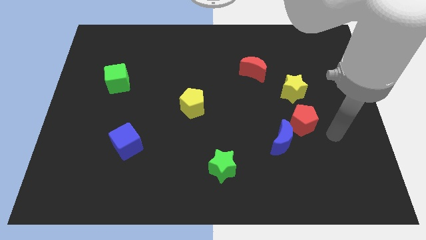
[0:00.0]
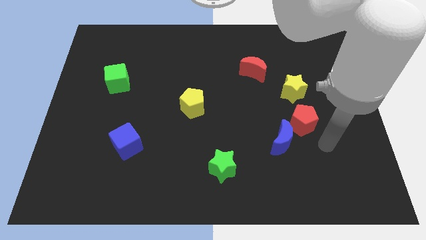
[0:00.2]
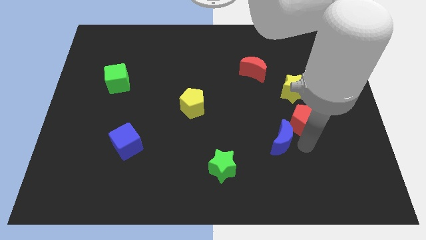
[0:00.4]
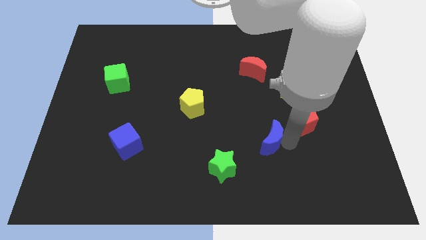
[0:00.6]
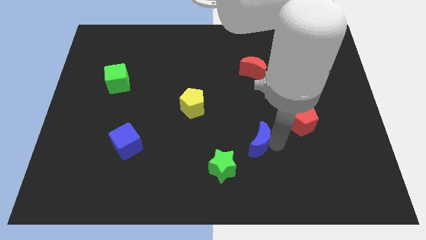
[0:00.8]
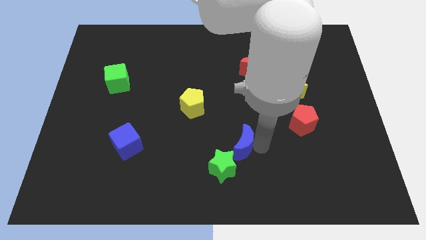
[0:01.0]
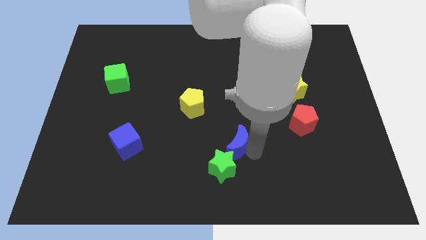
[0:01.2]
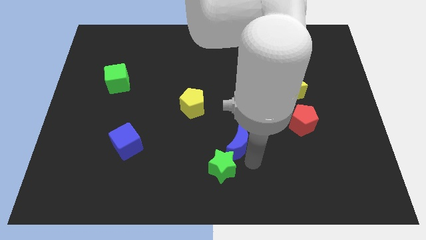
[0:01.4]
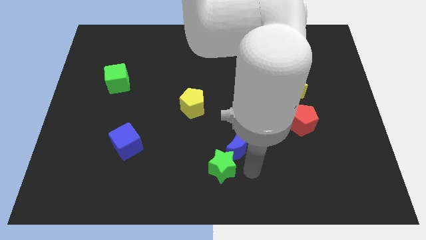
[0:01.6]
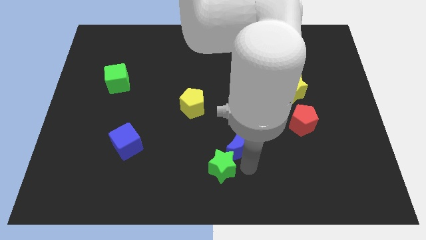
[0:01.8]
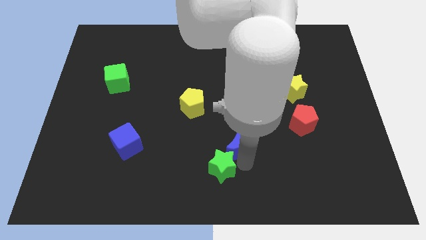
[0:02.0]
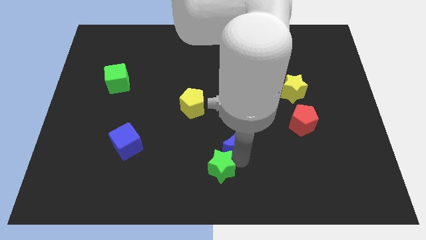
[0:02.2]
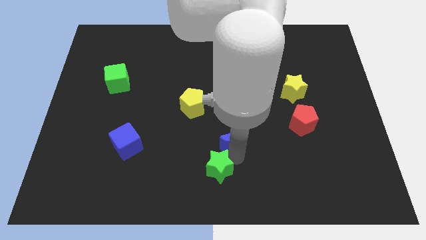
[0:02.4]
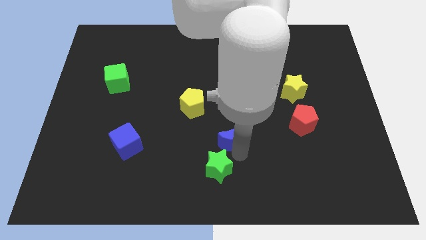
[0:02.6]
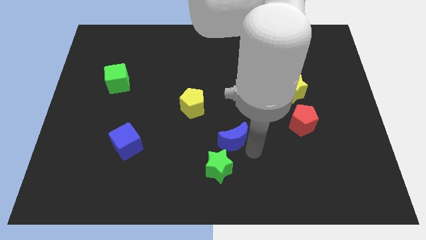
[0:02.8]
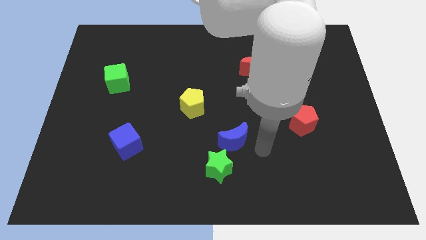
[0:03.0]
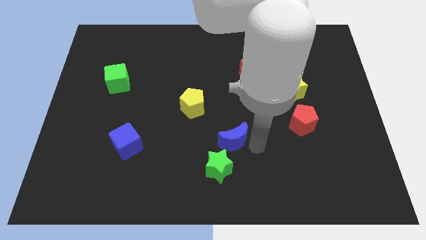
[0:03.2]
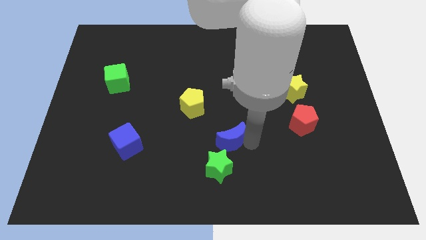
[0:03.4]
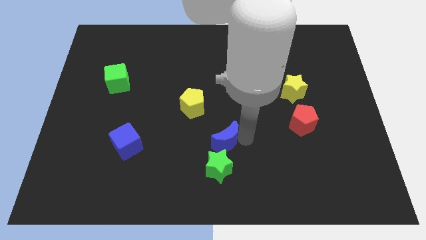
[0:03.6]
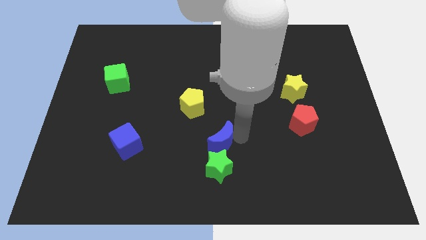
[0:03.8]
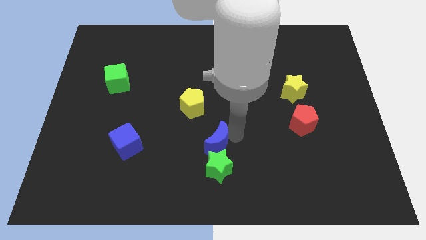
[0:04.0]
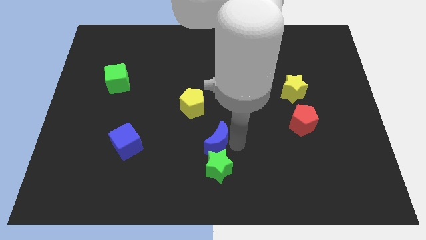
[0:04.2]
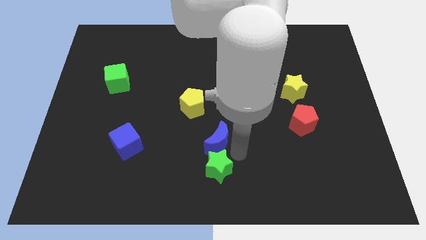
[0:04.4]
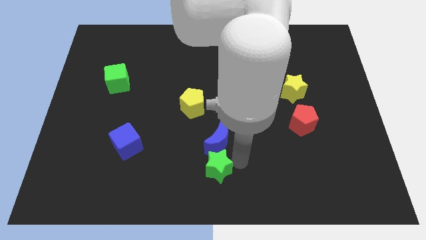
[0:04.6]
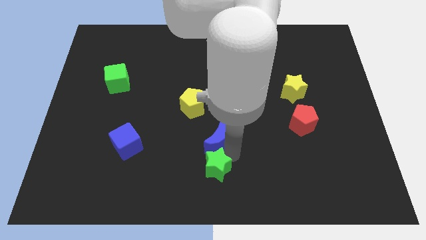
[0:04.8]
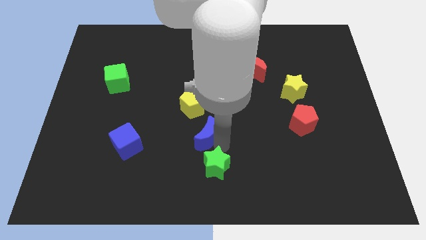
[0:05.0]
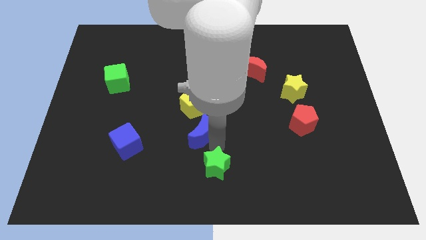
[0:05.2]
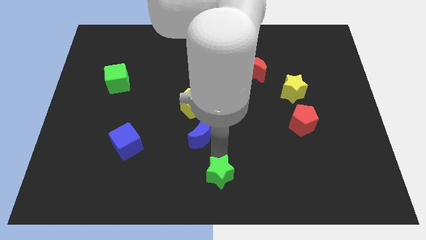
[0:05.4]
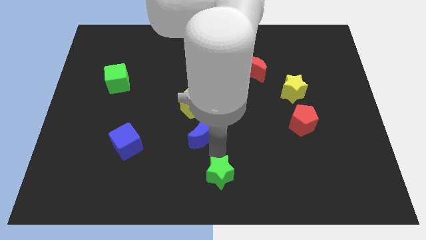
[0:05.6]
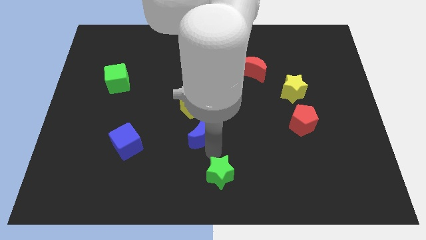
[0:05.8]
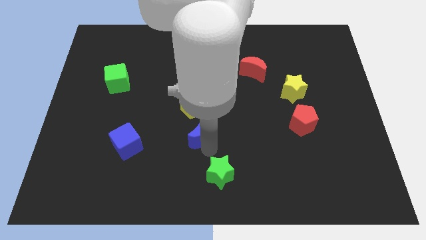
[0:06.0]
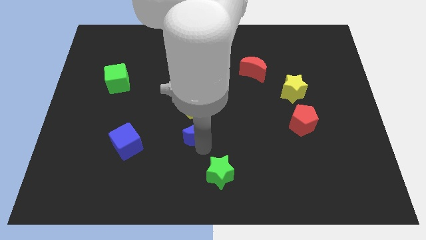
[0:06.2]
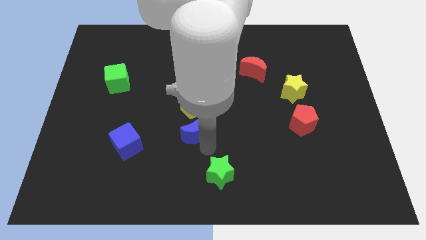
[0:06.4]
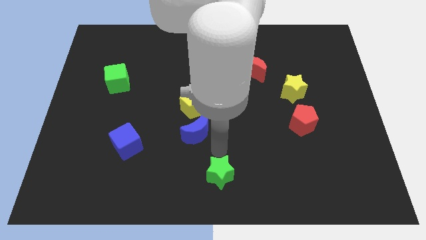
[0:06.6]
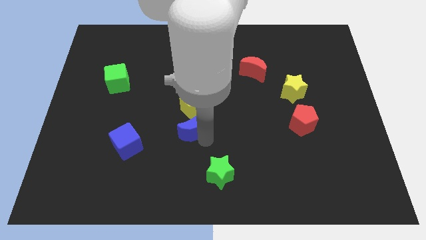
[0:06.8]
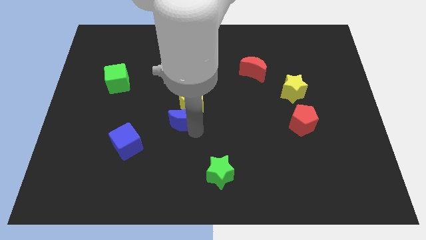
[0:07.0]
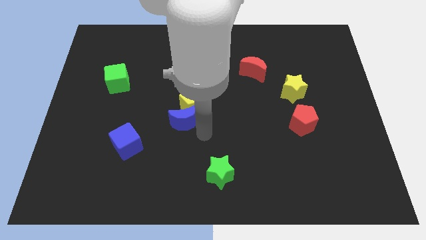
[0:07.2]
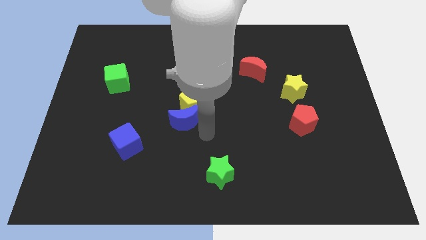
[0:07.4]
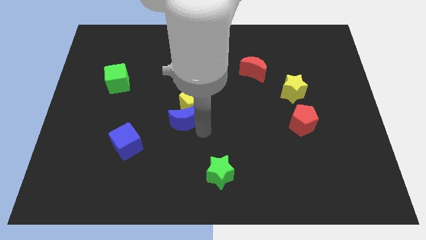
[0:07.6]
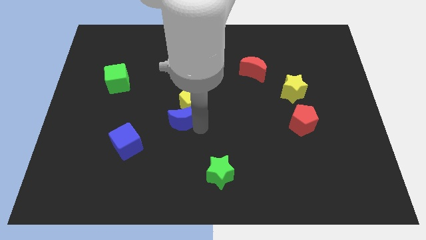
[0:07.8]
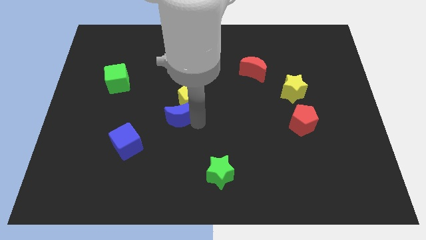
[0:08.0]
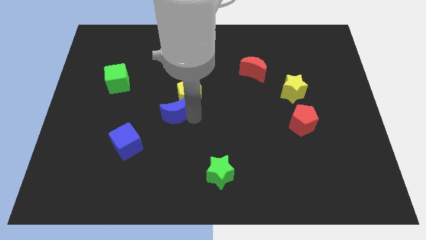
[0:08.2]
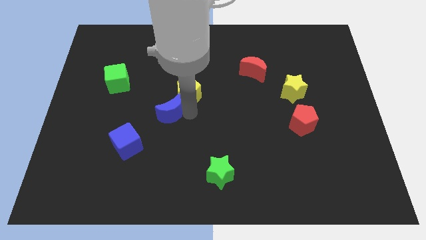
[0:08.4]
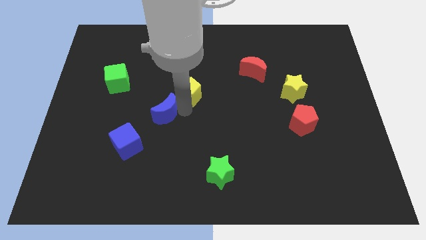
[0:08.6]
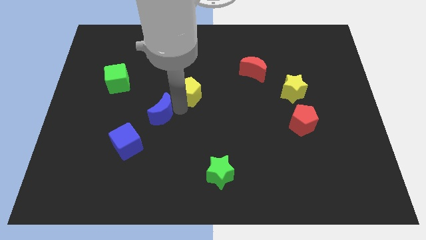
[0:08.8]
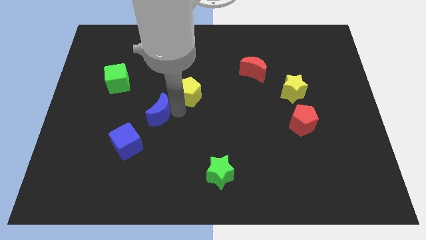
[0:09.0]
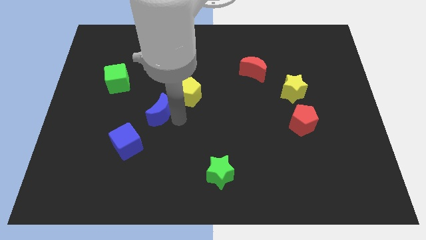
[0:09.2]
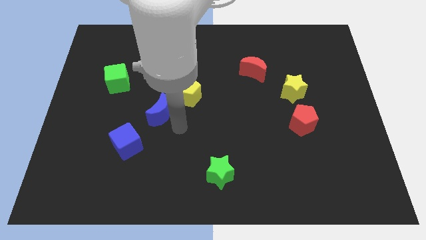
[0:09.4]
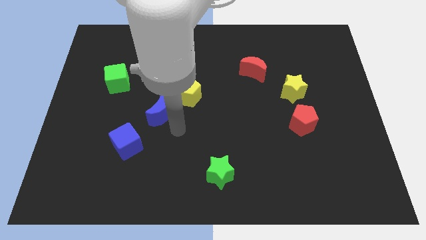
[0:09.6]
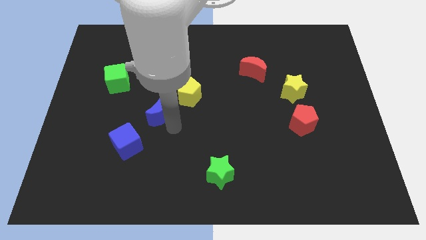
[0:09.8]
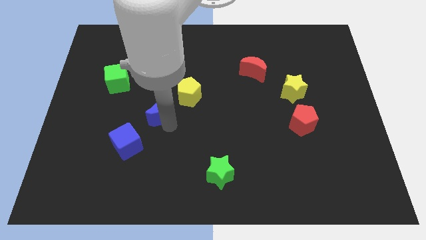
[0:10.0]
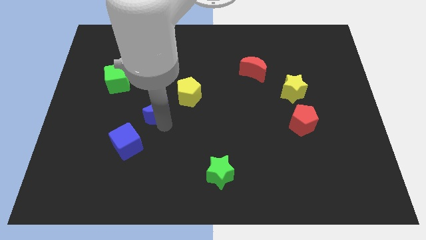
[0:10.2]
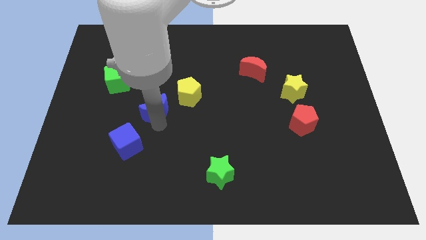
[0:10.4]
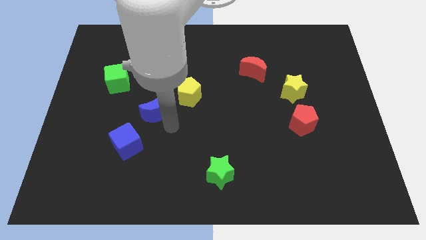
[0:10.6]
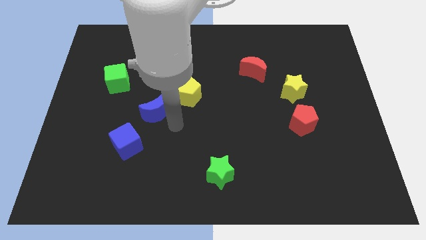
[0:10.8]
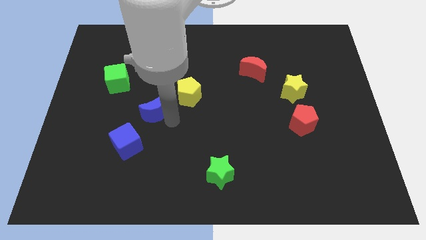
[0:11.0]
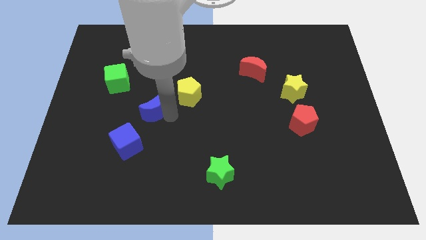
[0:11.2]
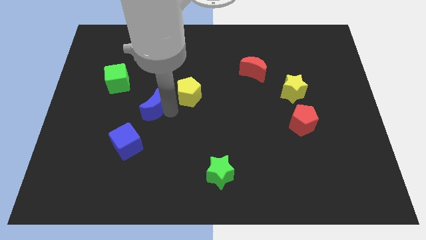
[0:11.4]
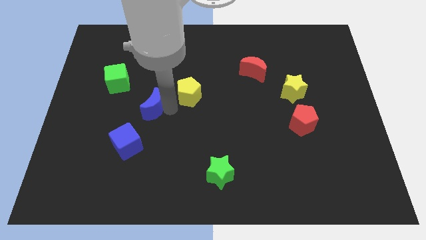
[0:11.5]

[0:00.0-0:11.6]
move the blue moon diagonally down and to the right of the green cube

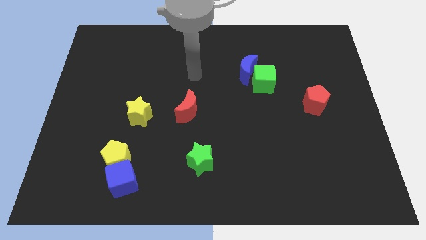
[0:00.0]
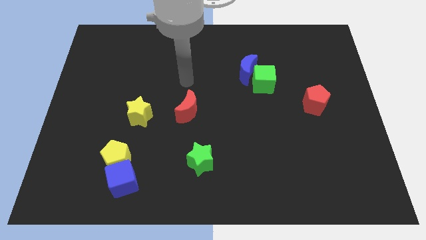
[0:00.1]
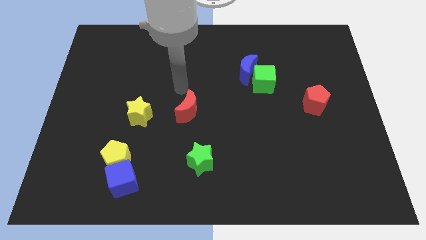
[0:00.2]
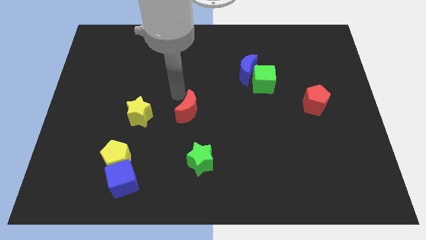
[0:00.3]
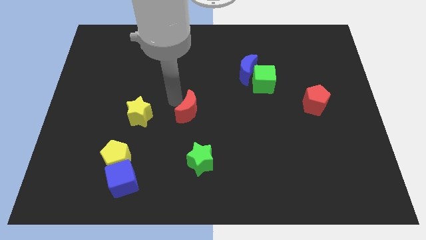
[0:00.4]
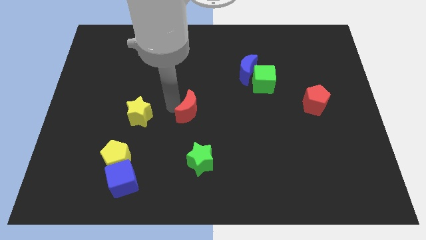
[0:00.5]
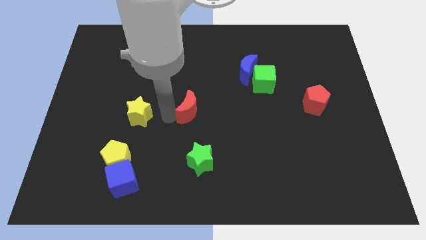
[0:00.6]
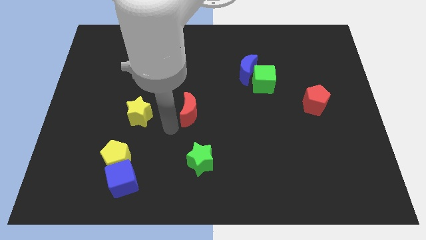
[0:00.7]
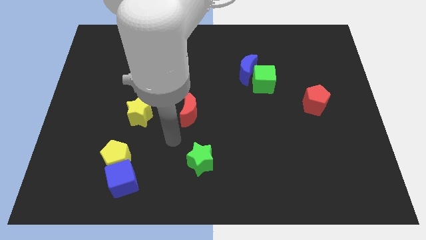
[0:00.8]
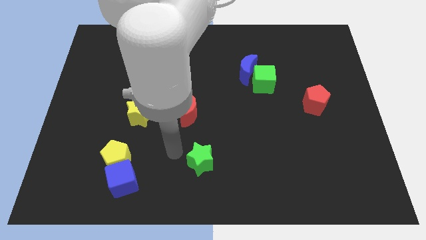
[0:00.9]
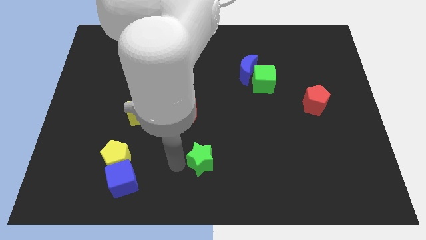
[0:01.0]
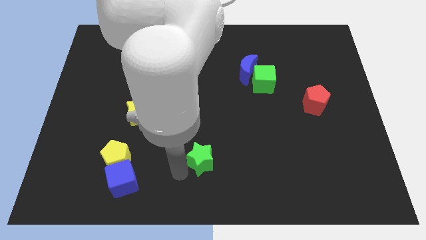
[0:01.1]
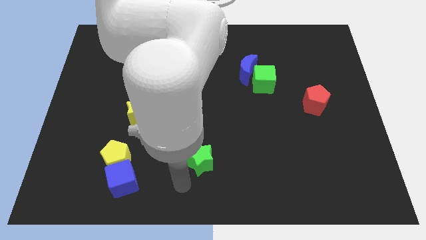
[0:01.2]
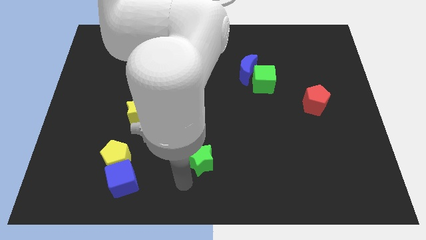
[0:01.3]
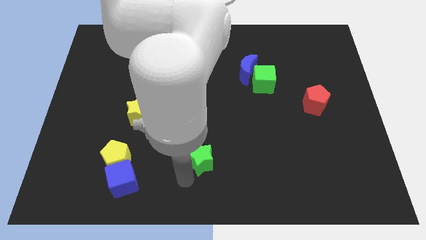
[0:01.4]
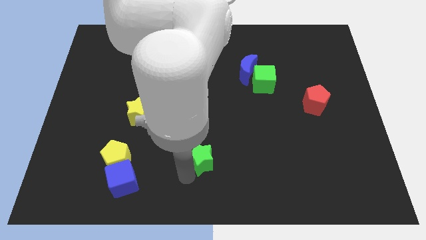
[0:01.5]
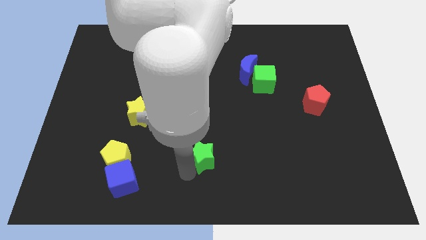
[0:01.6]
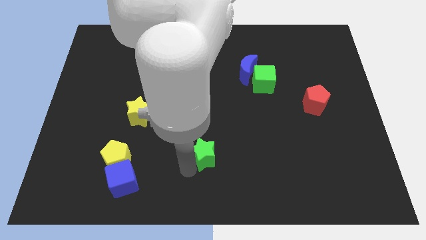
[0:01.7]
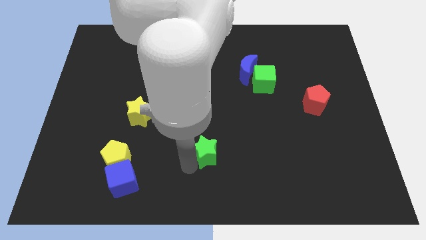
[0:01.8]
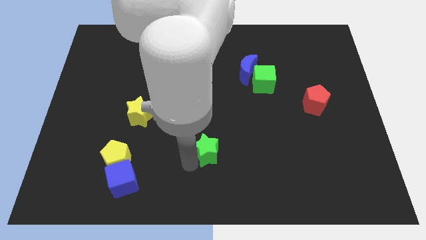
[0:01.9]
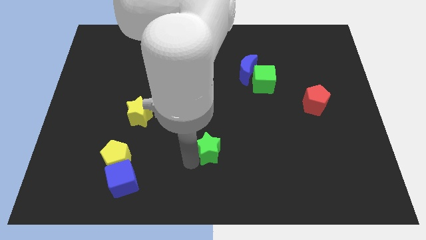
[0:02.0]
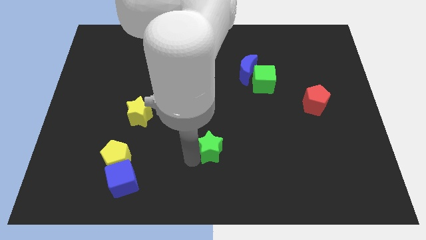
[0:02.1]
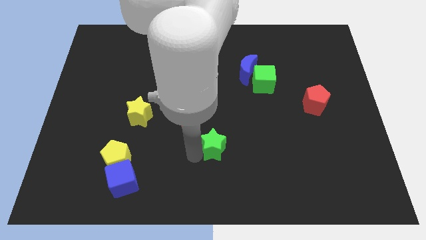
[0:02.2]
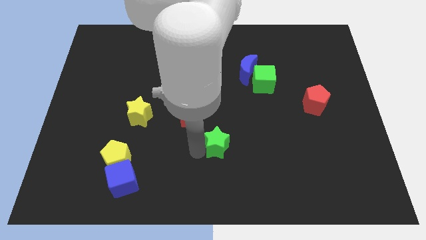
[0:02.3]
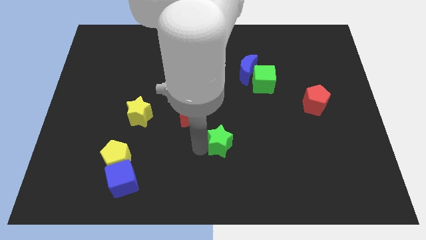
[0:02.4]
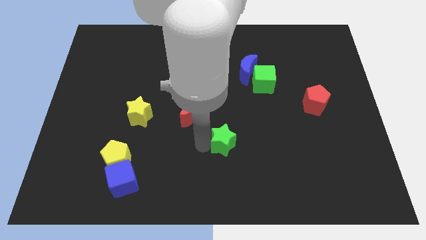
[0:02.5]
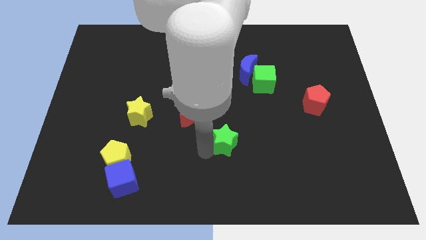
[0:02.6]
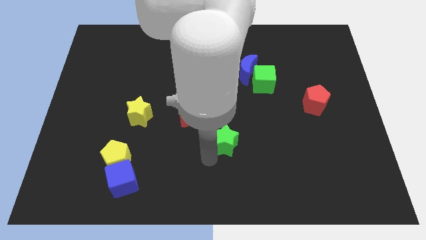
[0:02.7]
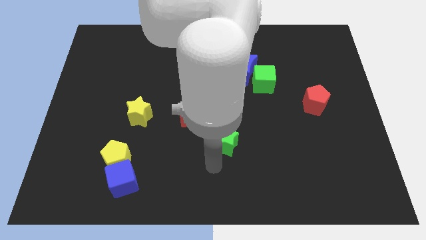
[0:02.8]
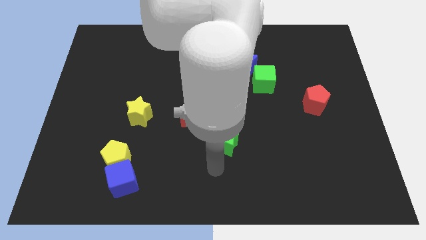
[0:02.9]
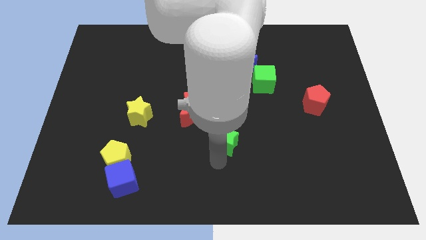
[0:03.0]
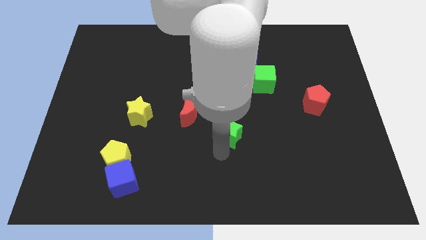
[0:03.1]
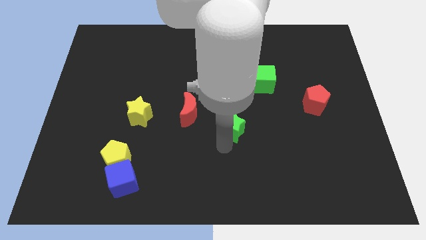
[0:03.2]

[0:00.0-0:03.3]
move the green star to the right side of the red moon
